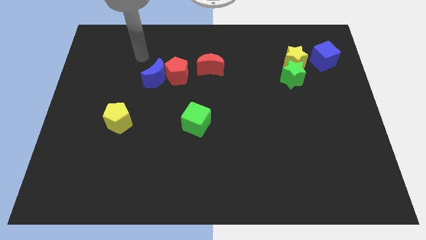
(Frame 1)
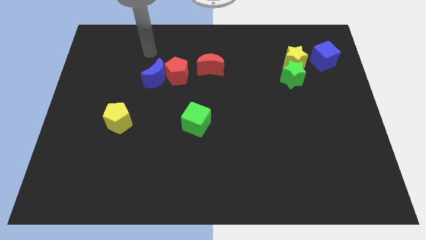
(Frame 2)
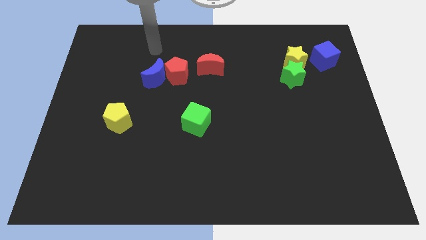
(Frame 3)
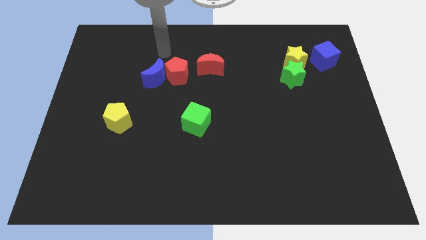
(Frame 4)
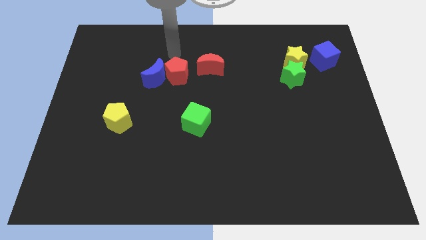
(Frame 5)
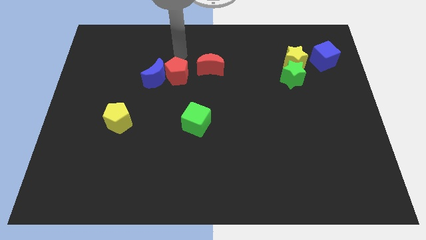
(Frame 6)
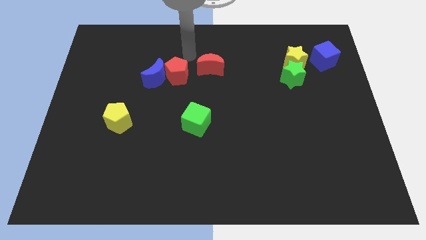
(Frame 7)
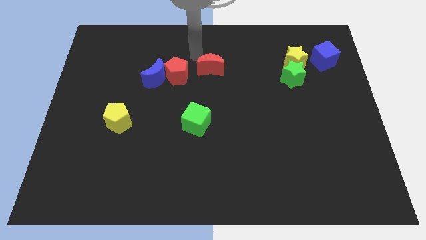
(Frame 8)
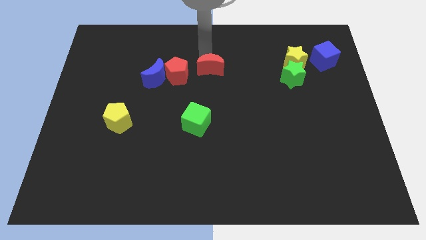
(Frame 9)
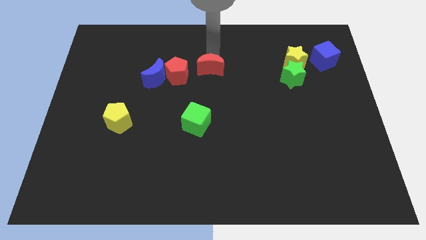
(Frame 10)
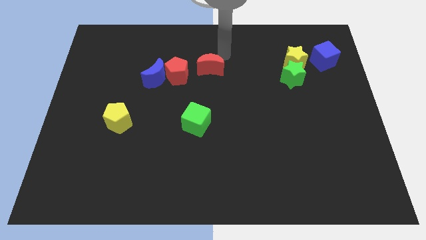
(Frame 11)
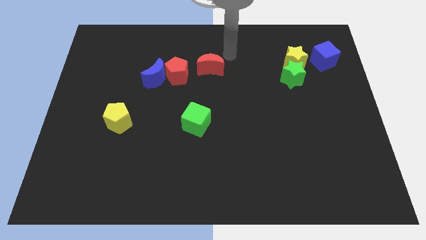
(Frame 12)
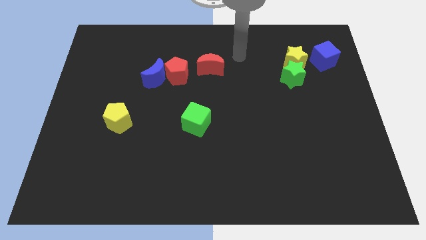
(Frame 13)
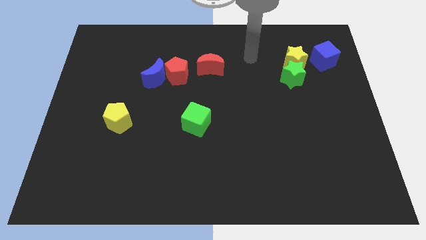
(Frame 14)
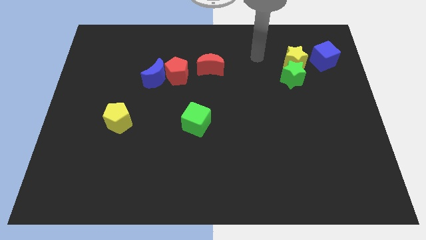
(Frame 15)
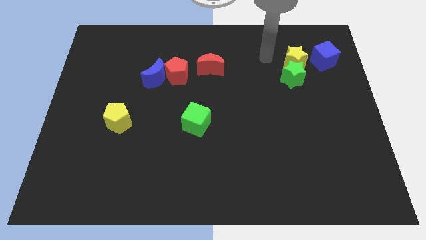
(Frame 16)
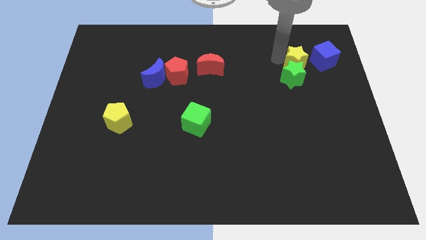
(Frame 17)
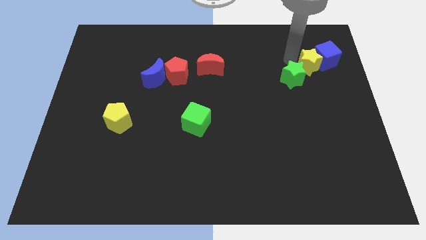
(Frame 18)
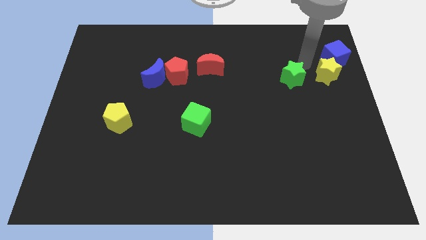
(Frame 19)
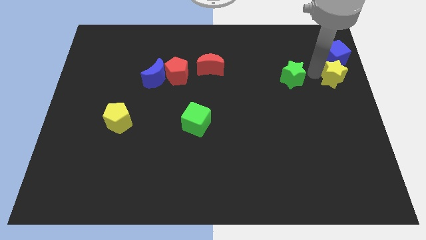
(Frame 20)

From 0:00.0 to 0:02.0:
move the green star away from the yellow star

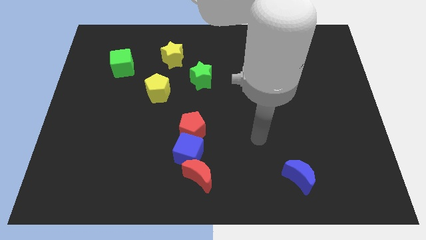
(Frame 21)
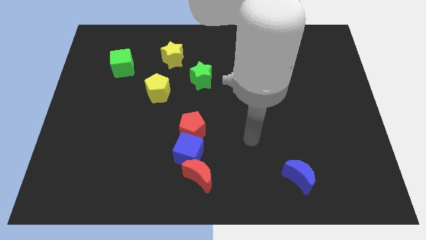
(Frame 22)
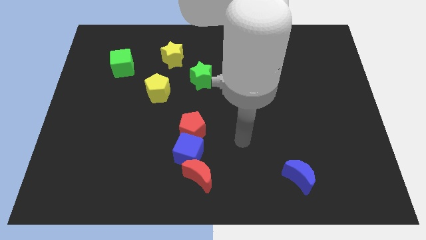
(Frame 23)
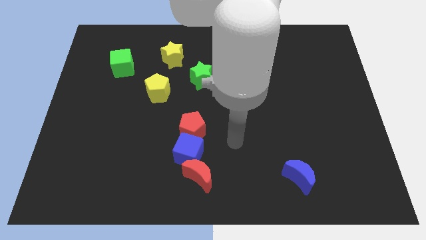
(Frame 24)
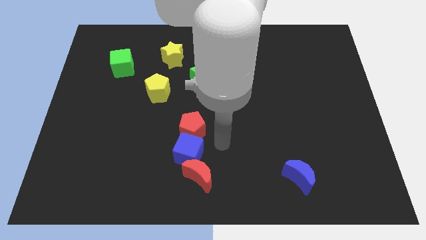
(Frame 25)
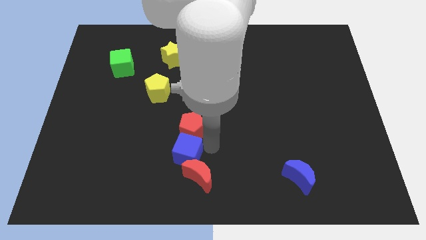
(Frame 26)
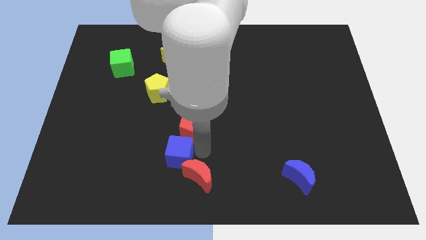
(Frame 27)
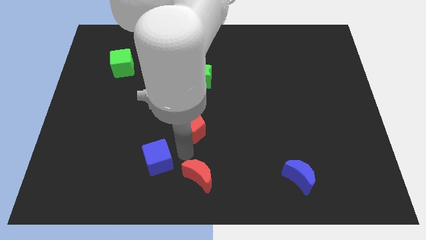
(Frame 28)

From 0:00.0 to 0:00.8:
pull the red pentagon apart from the blue cube

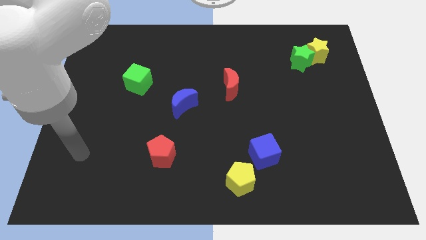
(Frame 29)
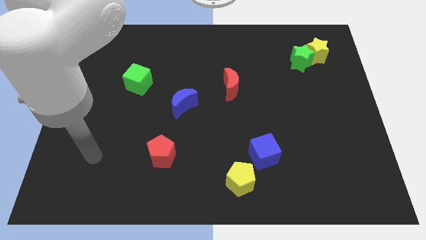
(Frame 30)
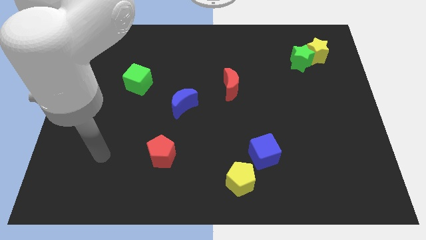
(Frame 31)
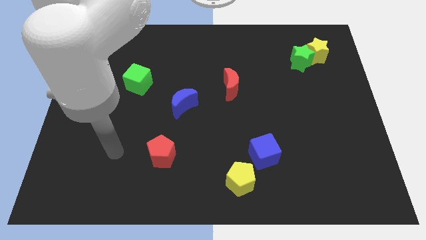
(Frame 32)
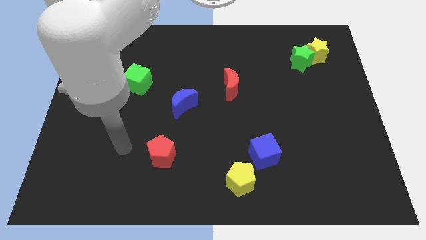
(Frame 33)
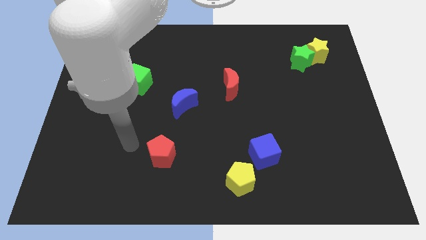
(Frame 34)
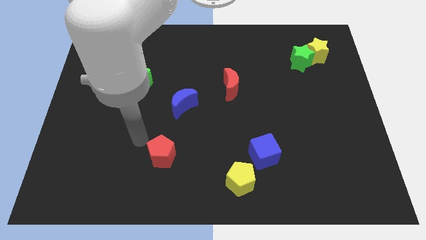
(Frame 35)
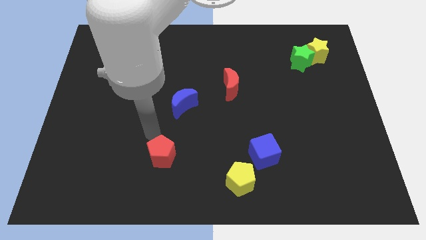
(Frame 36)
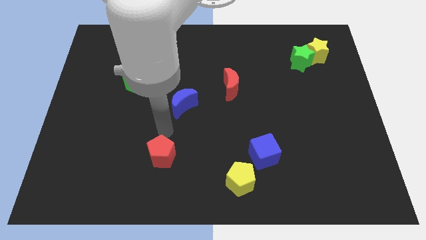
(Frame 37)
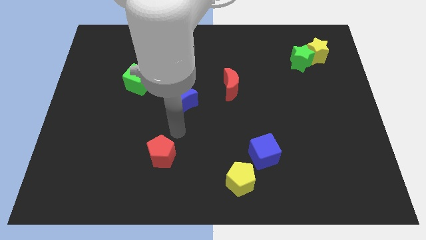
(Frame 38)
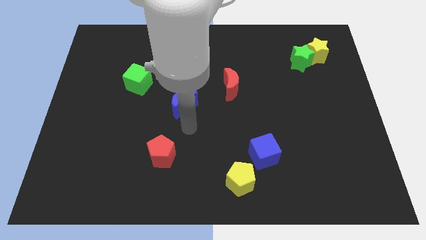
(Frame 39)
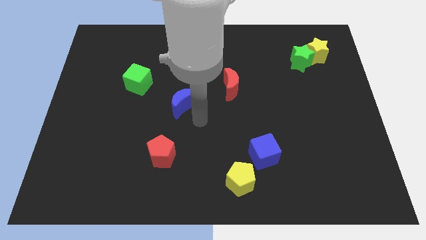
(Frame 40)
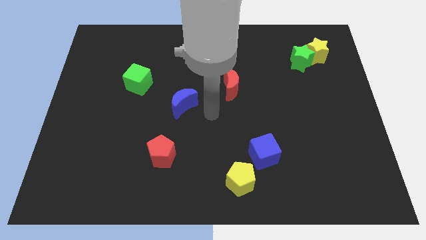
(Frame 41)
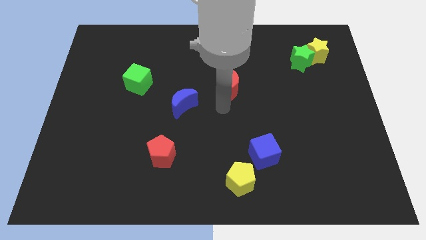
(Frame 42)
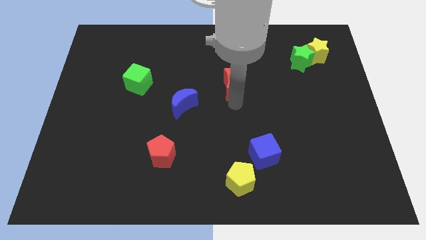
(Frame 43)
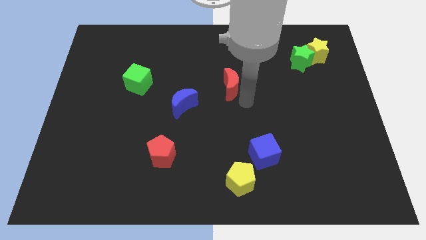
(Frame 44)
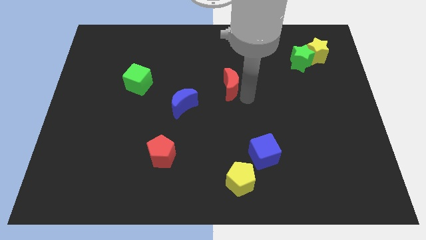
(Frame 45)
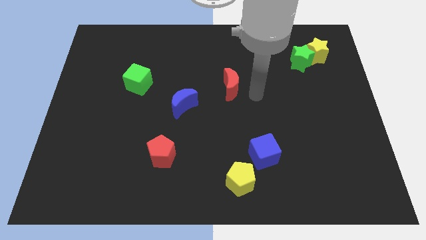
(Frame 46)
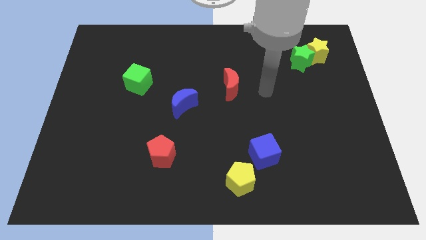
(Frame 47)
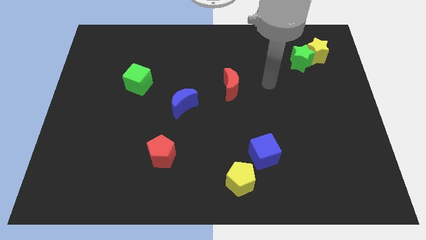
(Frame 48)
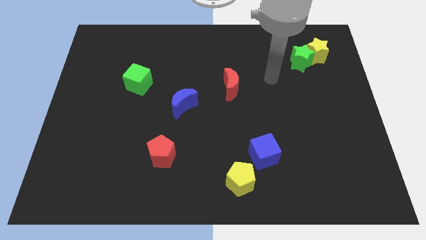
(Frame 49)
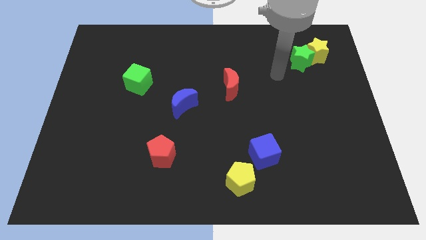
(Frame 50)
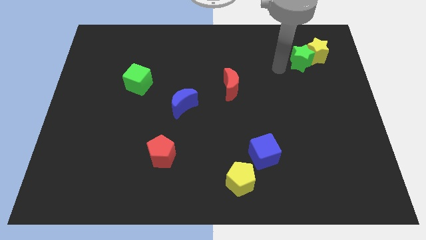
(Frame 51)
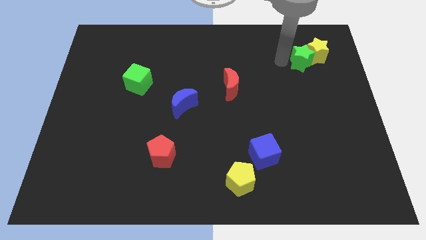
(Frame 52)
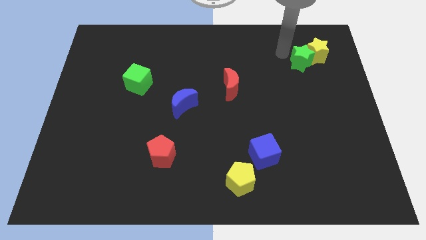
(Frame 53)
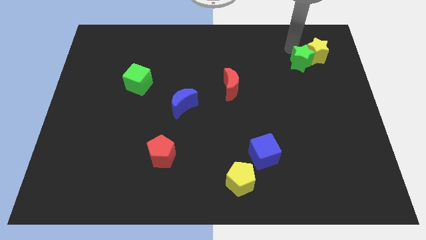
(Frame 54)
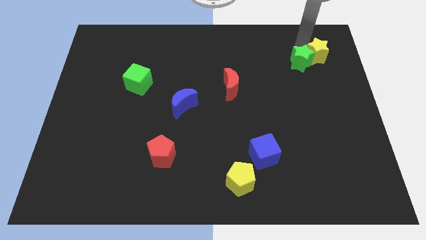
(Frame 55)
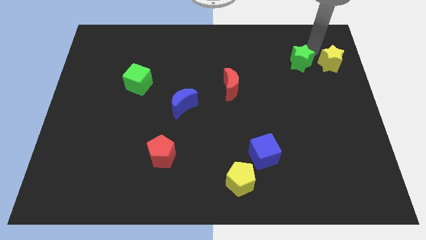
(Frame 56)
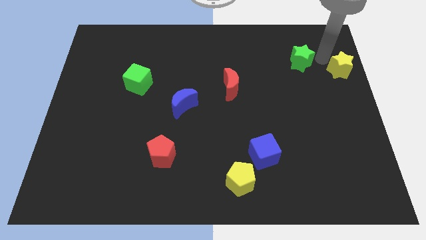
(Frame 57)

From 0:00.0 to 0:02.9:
pull the green star apart from the yellow star

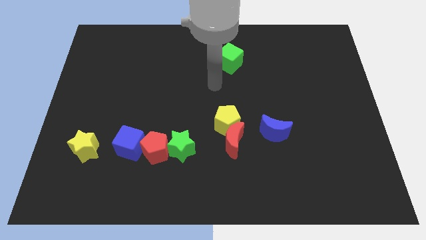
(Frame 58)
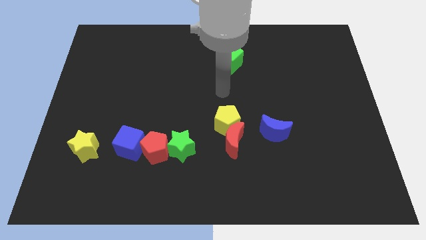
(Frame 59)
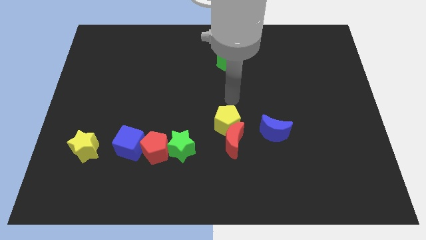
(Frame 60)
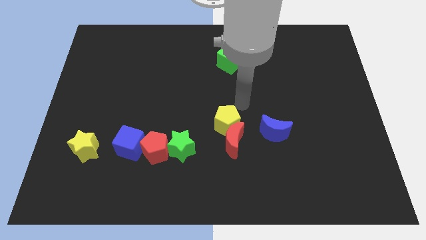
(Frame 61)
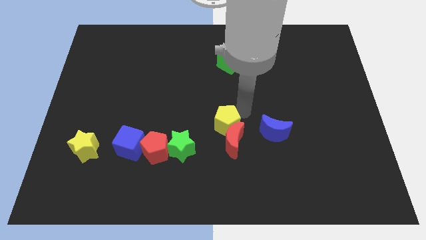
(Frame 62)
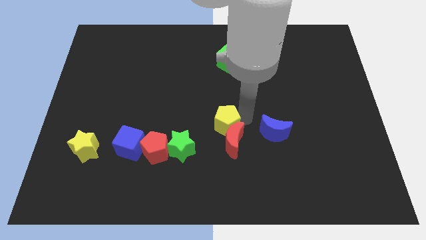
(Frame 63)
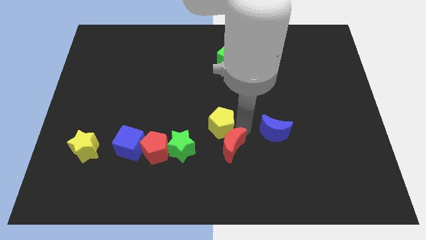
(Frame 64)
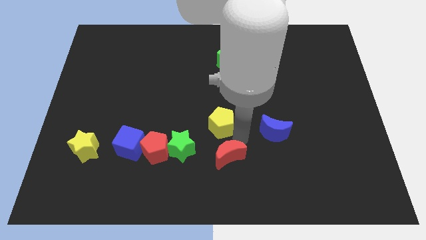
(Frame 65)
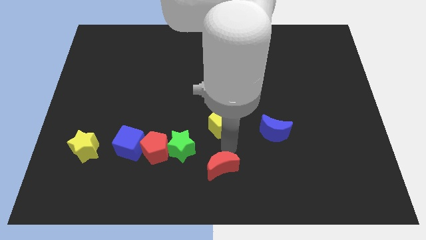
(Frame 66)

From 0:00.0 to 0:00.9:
pull the yellow pentagon apart from the red moon

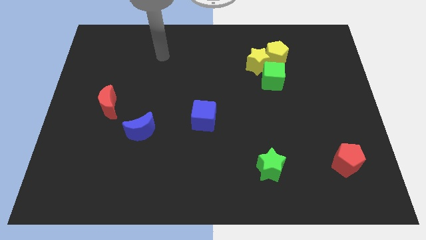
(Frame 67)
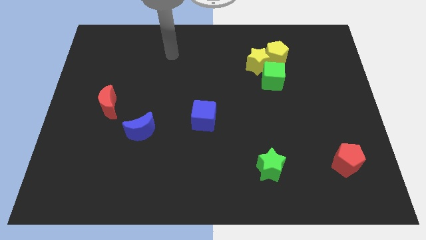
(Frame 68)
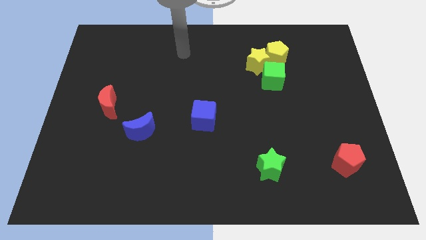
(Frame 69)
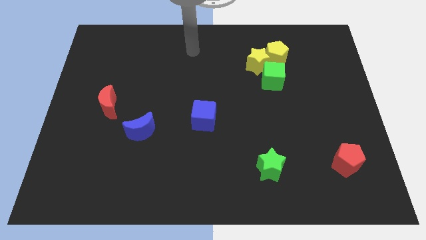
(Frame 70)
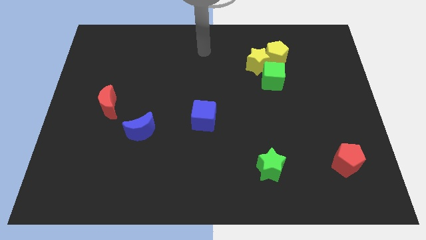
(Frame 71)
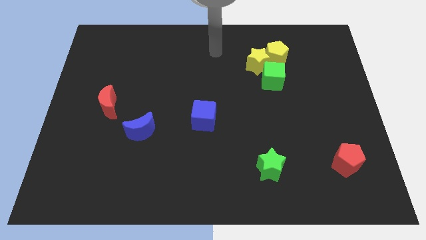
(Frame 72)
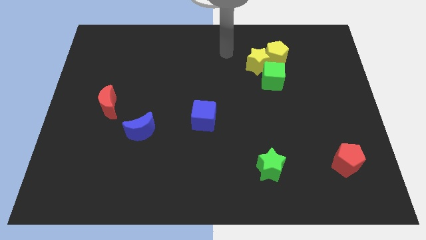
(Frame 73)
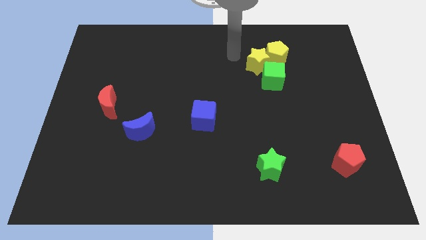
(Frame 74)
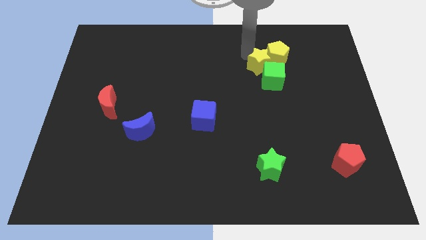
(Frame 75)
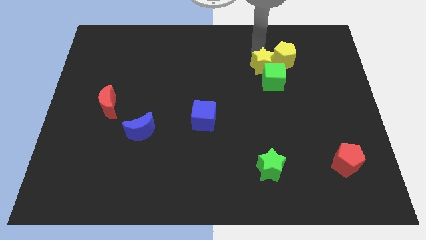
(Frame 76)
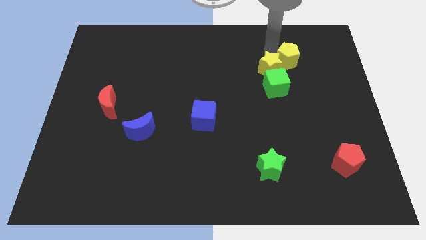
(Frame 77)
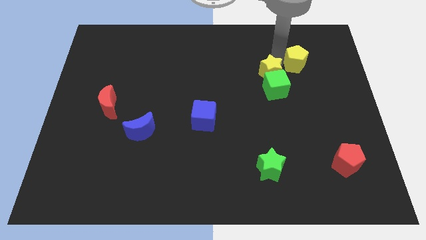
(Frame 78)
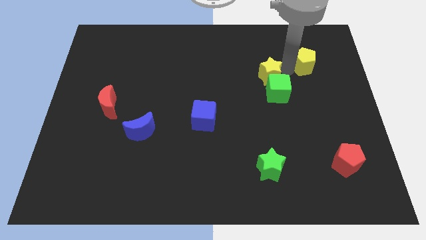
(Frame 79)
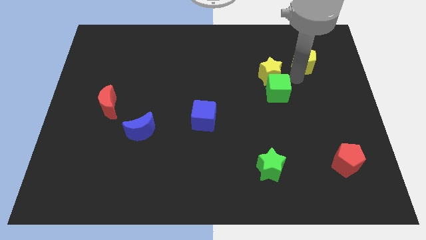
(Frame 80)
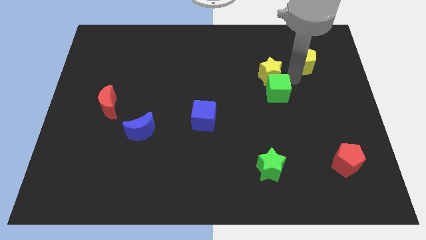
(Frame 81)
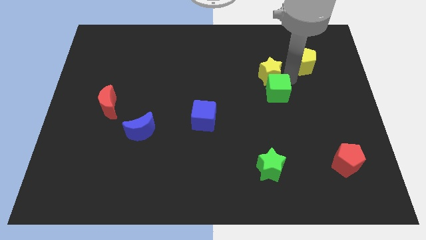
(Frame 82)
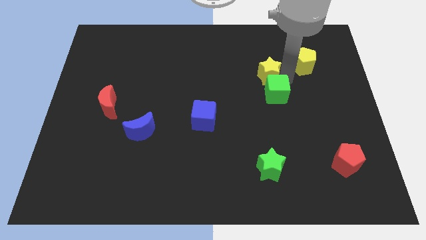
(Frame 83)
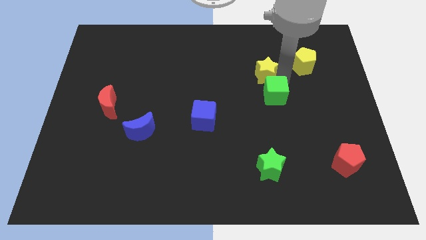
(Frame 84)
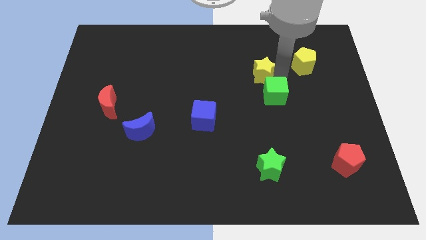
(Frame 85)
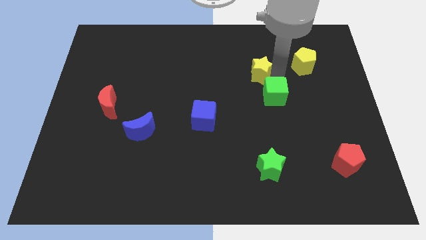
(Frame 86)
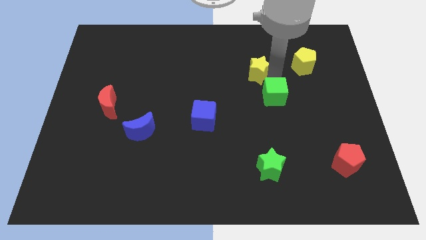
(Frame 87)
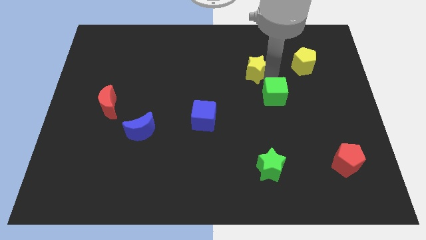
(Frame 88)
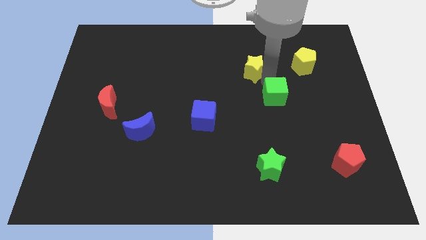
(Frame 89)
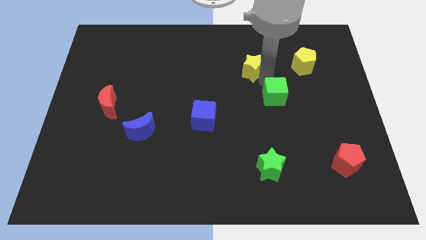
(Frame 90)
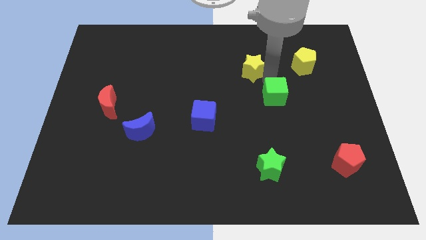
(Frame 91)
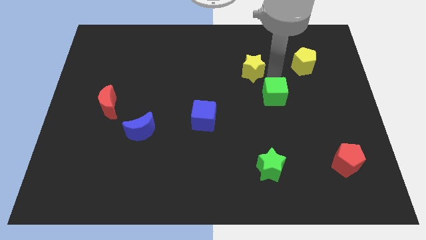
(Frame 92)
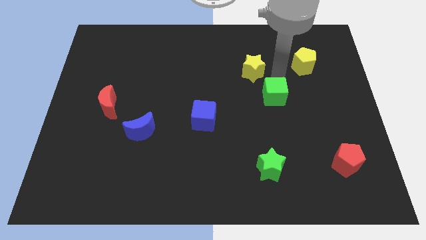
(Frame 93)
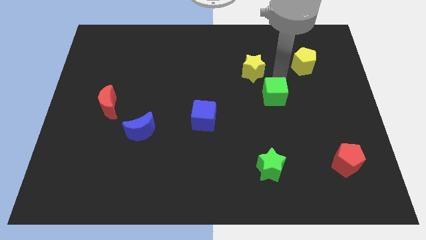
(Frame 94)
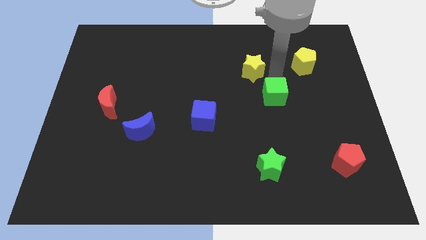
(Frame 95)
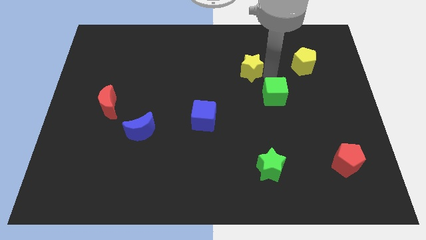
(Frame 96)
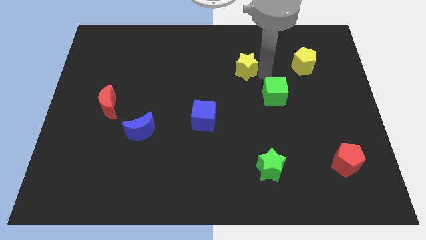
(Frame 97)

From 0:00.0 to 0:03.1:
move the yellow star away from the yellow pentagon and green cube
